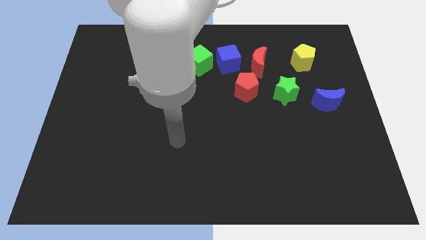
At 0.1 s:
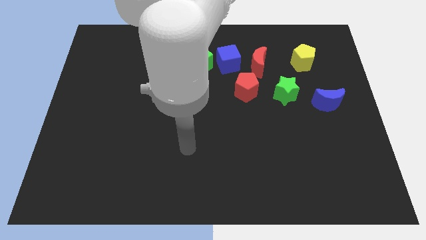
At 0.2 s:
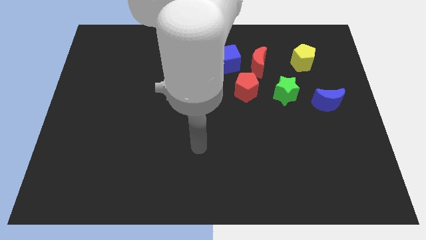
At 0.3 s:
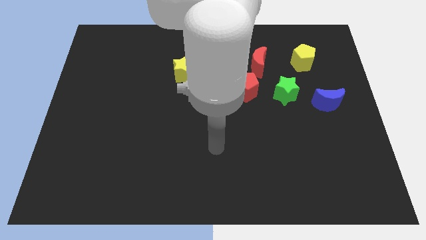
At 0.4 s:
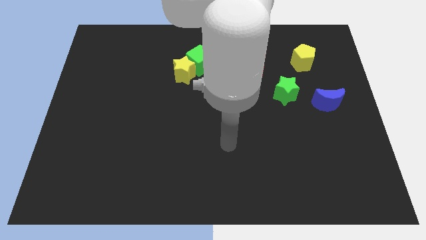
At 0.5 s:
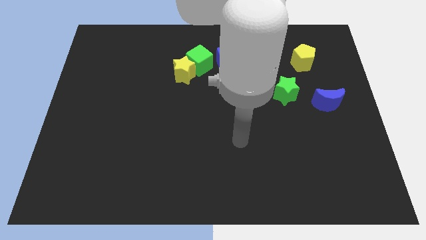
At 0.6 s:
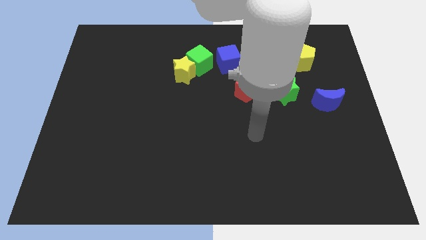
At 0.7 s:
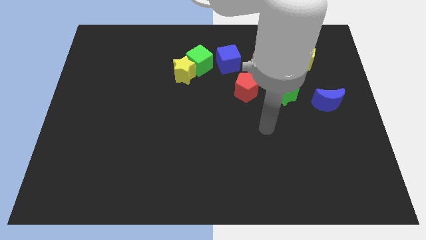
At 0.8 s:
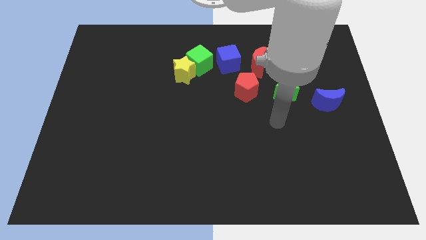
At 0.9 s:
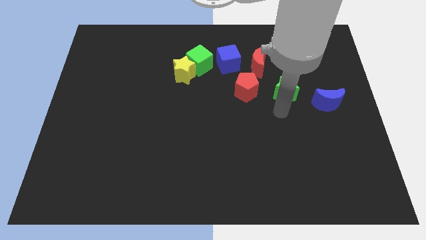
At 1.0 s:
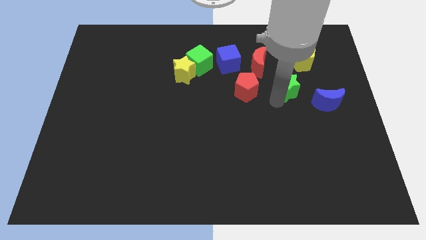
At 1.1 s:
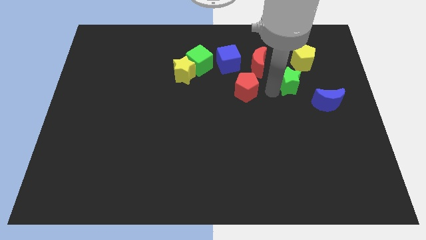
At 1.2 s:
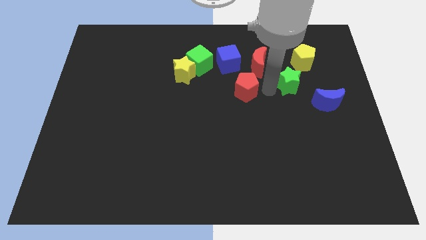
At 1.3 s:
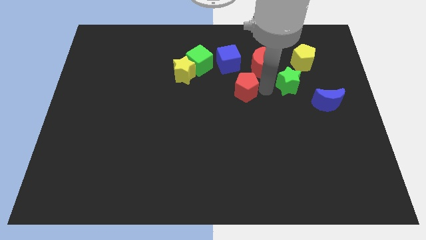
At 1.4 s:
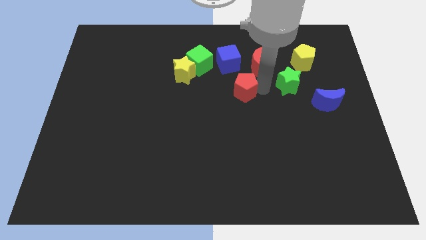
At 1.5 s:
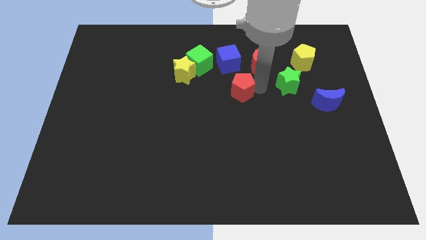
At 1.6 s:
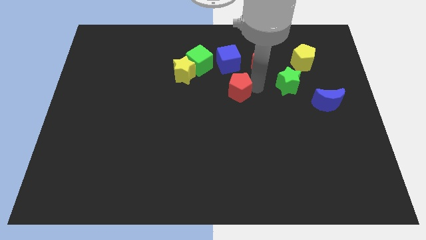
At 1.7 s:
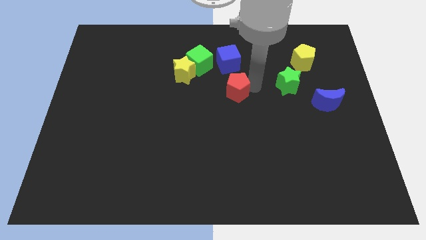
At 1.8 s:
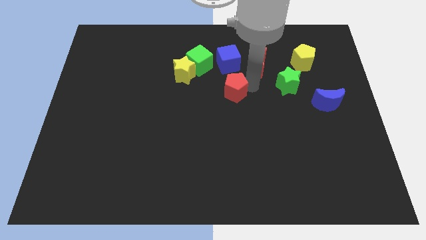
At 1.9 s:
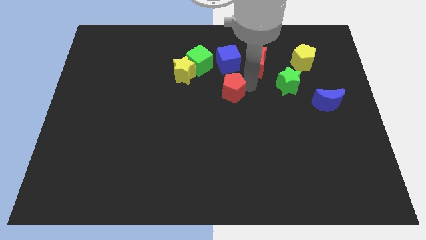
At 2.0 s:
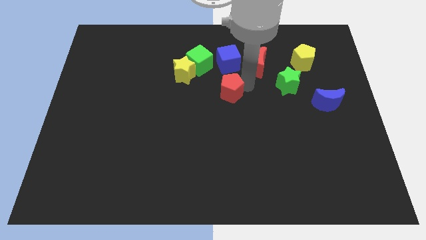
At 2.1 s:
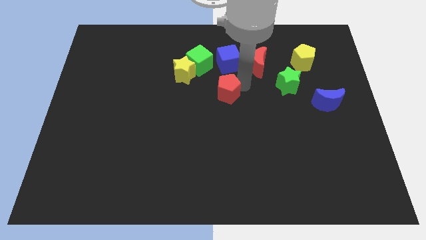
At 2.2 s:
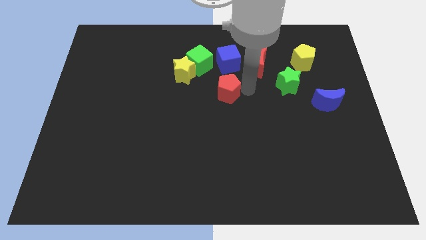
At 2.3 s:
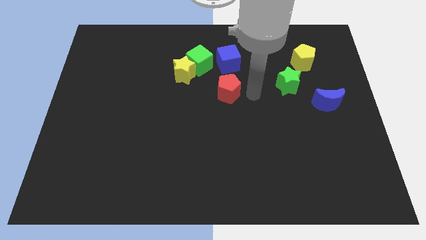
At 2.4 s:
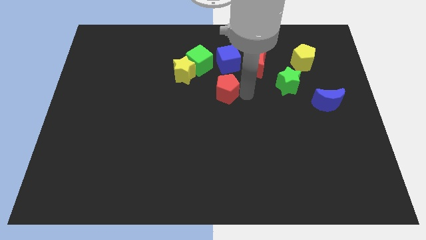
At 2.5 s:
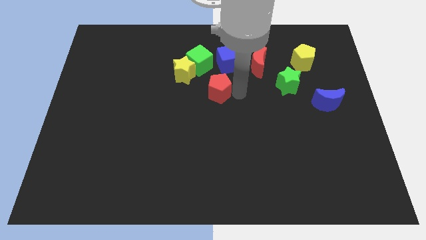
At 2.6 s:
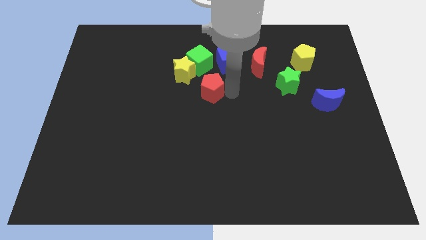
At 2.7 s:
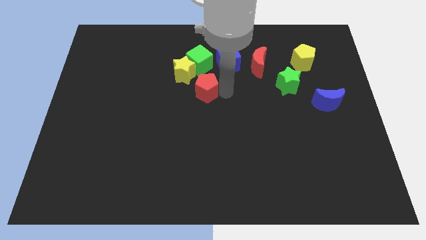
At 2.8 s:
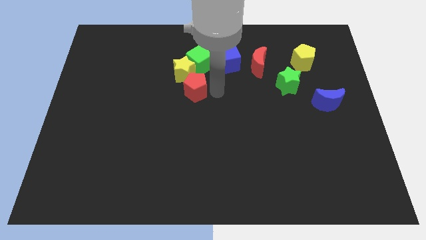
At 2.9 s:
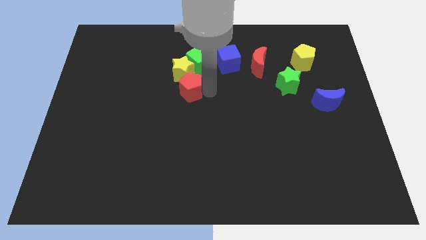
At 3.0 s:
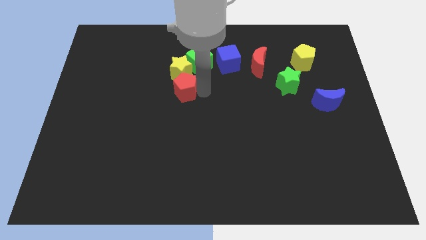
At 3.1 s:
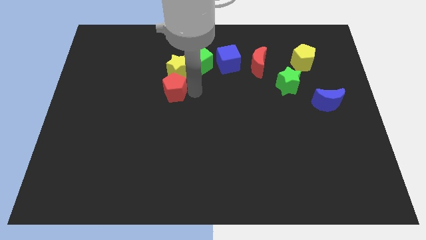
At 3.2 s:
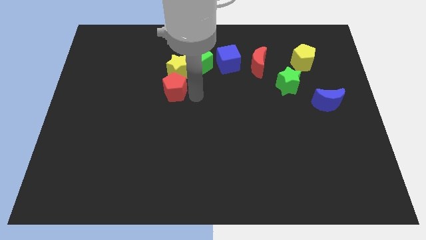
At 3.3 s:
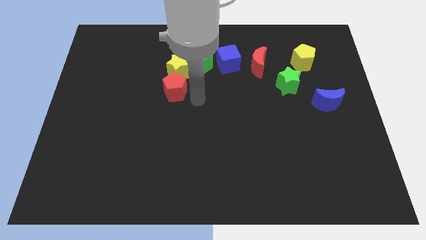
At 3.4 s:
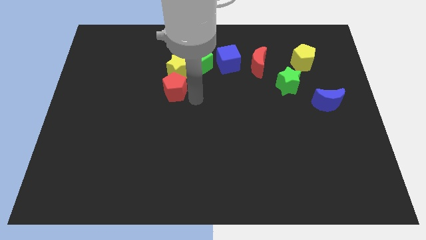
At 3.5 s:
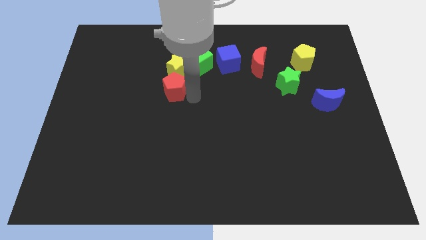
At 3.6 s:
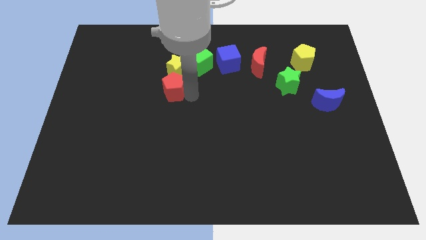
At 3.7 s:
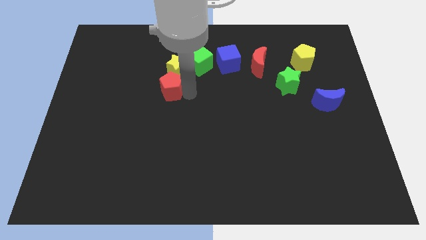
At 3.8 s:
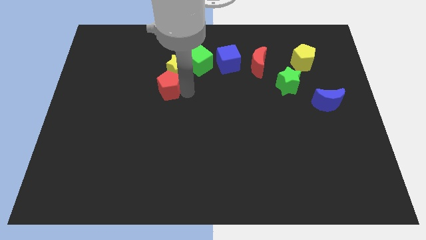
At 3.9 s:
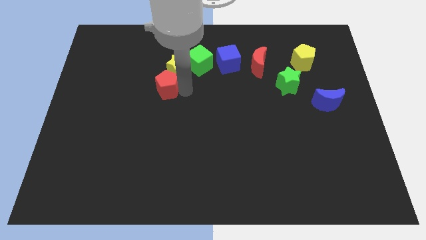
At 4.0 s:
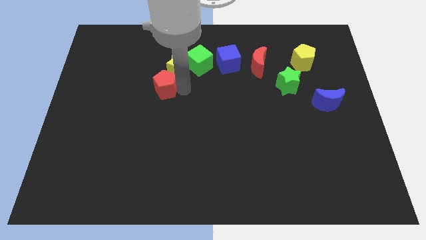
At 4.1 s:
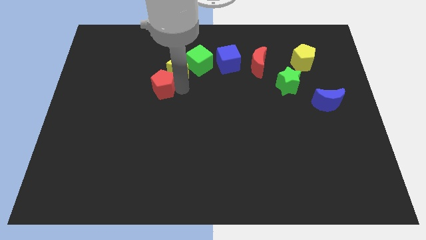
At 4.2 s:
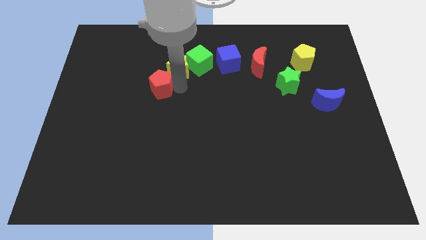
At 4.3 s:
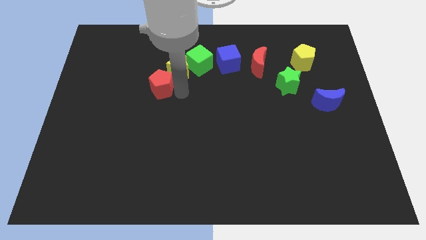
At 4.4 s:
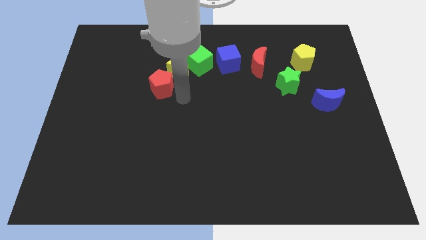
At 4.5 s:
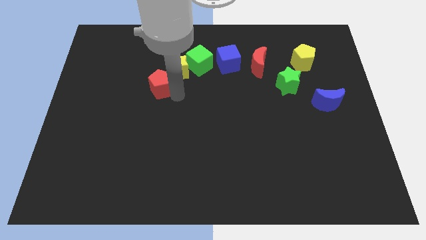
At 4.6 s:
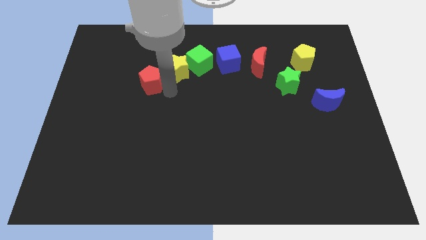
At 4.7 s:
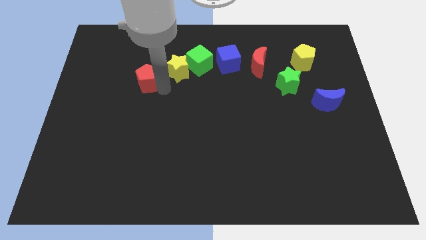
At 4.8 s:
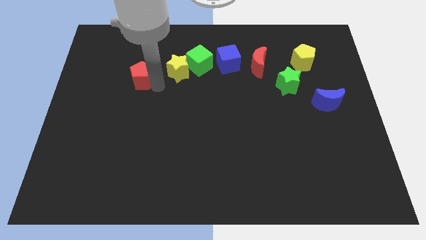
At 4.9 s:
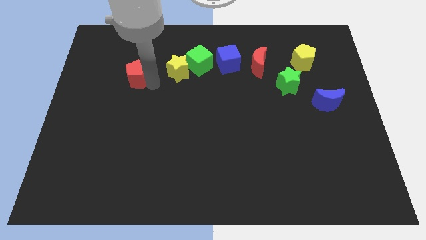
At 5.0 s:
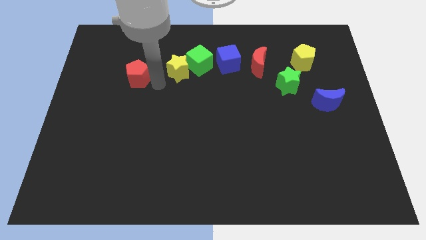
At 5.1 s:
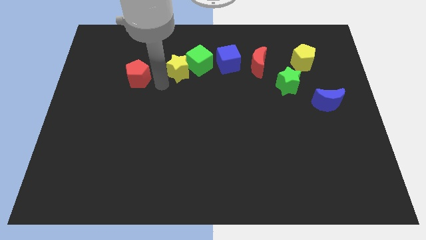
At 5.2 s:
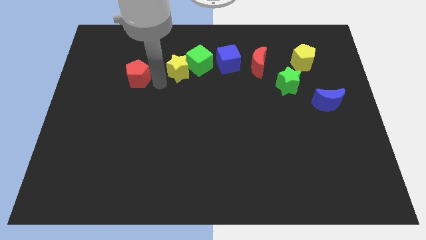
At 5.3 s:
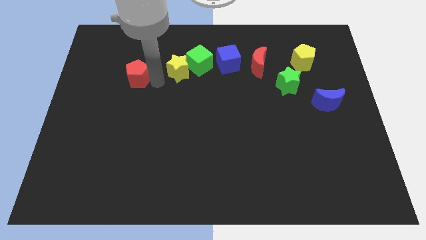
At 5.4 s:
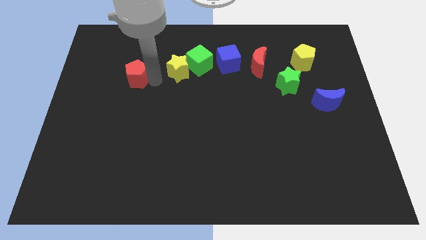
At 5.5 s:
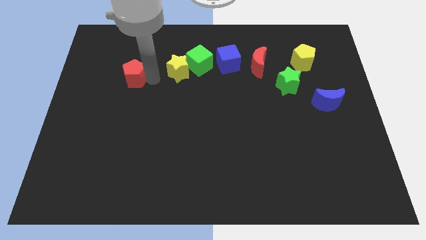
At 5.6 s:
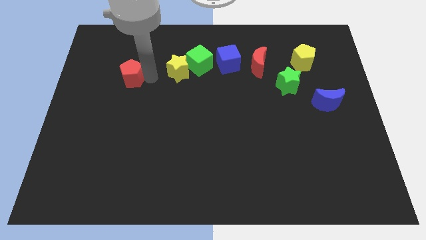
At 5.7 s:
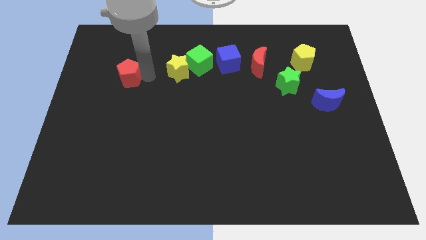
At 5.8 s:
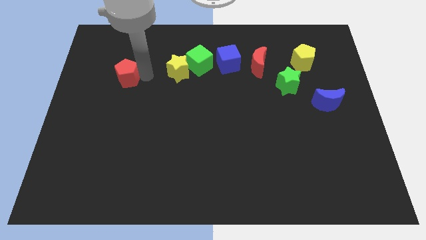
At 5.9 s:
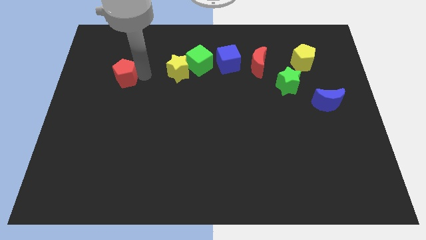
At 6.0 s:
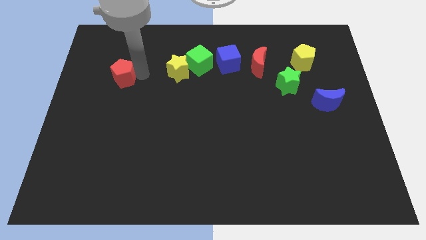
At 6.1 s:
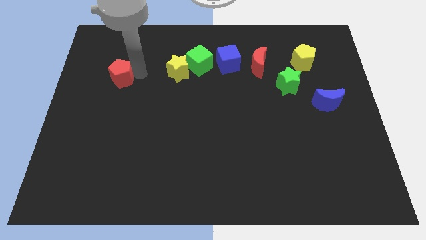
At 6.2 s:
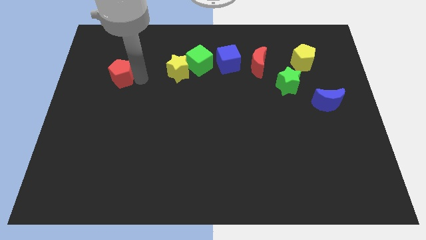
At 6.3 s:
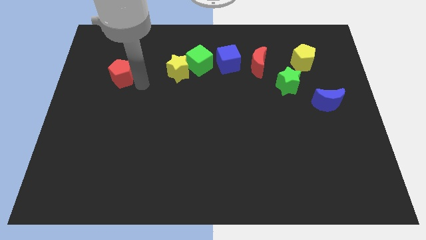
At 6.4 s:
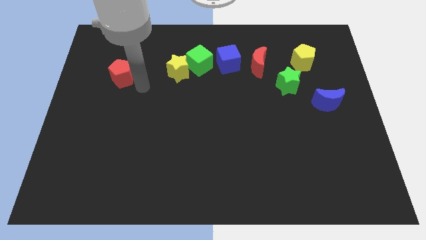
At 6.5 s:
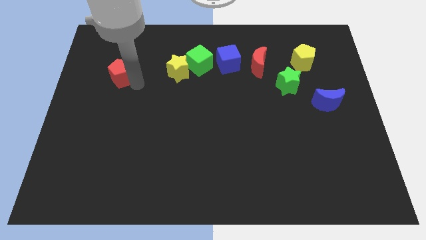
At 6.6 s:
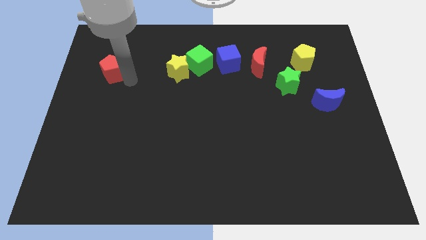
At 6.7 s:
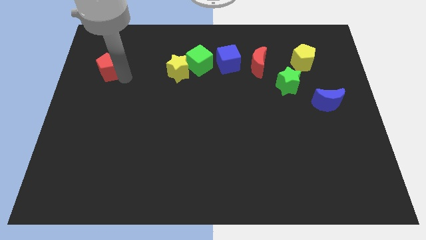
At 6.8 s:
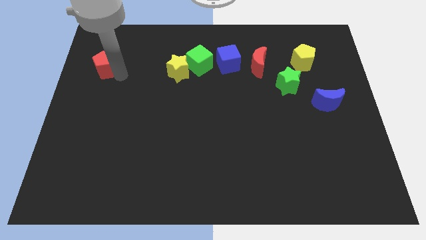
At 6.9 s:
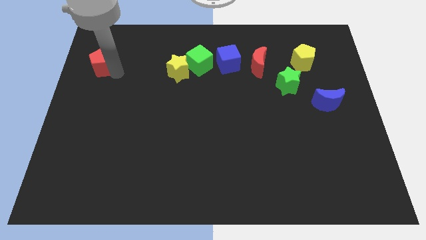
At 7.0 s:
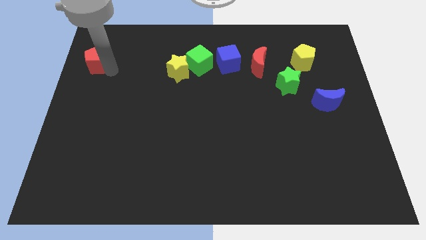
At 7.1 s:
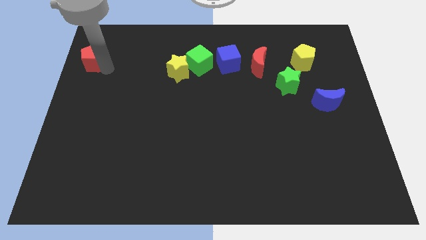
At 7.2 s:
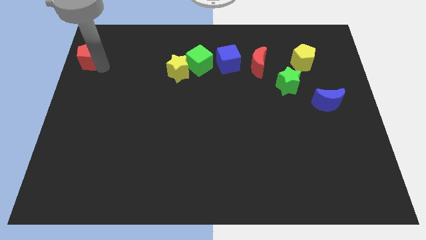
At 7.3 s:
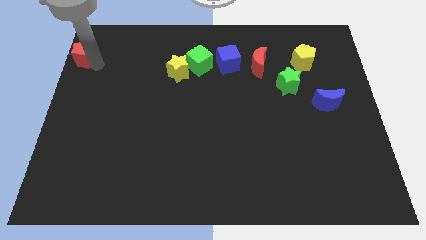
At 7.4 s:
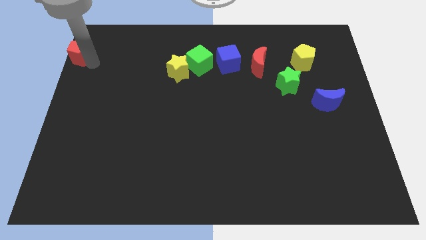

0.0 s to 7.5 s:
push the red pentagon to the top left
